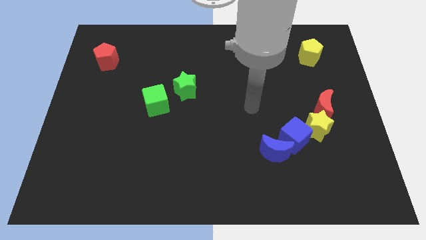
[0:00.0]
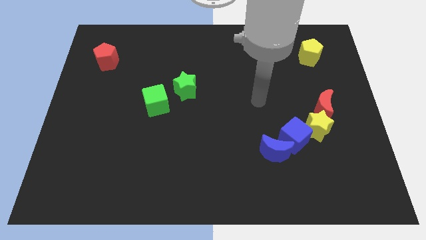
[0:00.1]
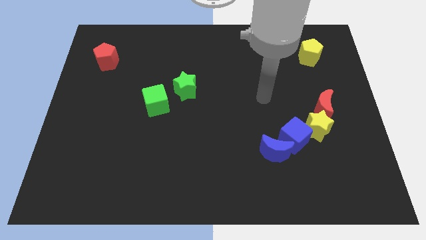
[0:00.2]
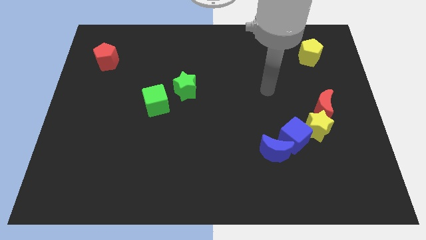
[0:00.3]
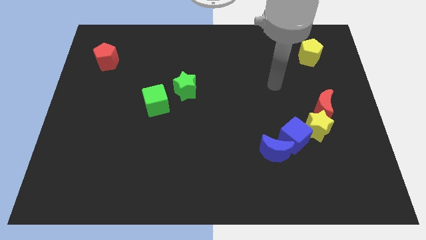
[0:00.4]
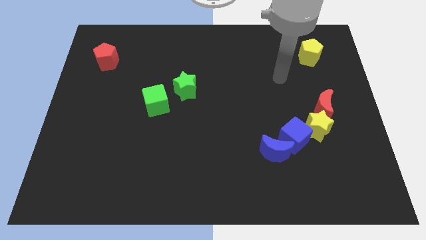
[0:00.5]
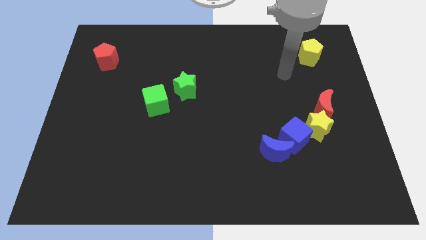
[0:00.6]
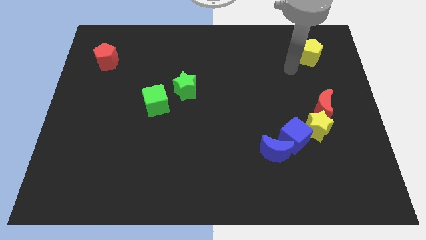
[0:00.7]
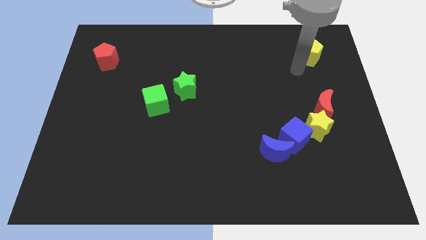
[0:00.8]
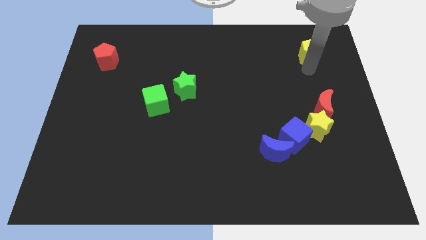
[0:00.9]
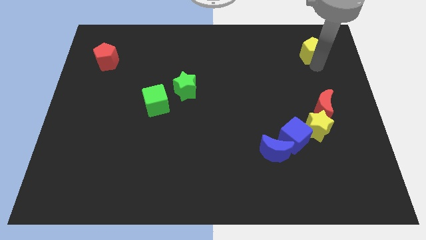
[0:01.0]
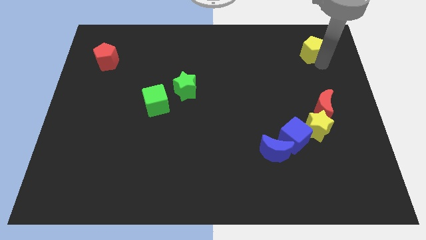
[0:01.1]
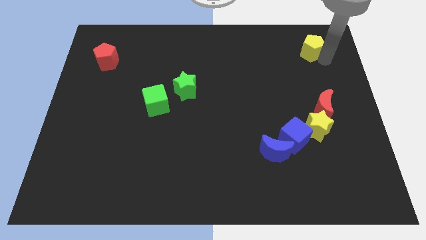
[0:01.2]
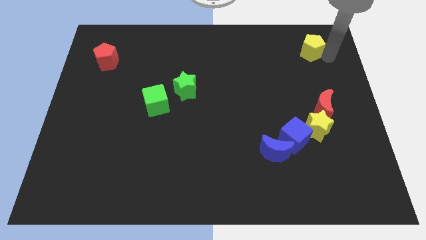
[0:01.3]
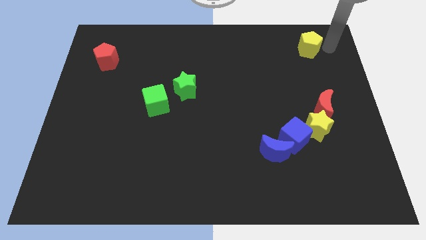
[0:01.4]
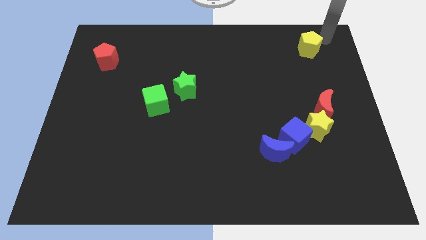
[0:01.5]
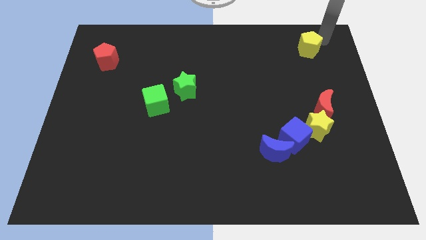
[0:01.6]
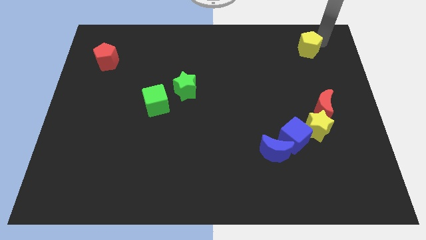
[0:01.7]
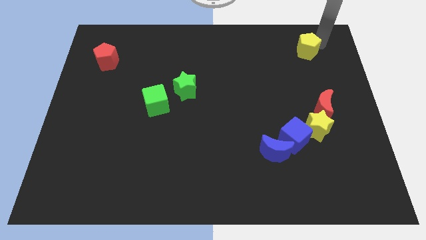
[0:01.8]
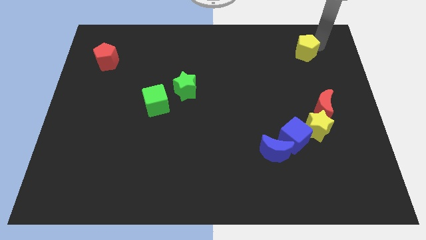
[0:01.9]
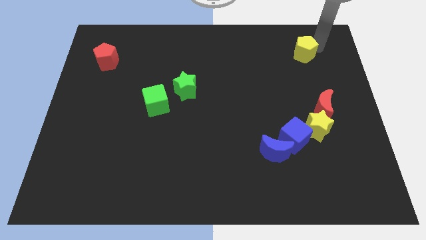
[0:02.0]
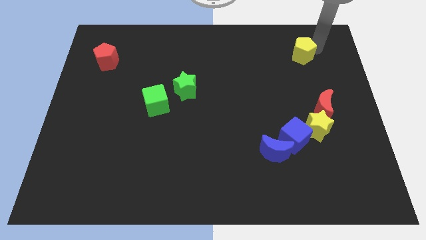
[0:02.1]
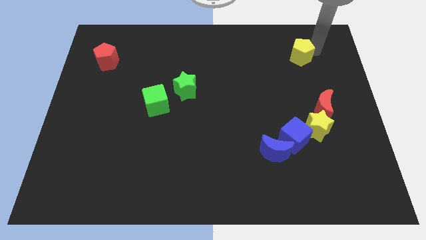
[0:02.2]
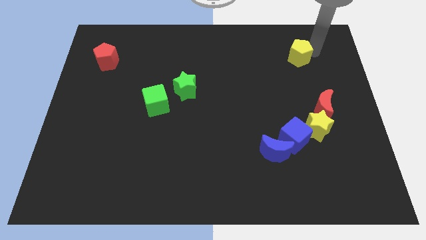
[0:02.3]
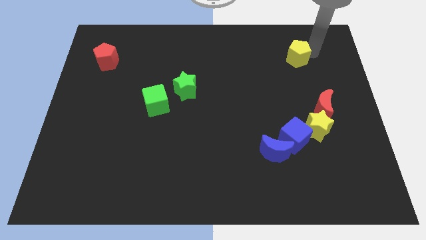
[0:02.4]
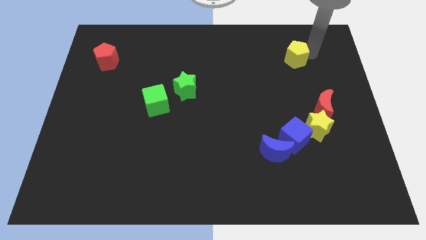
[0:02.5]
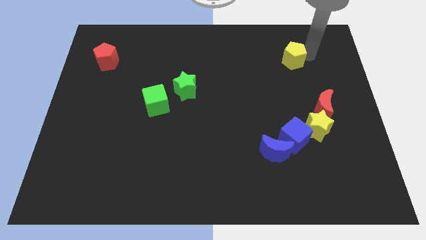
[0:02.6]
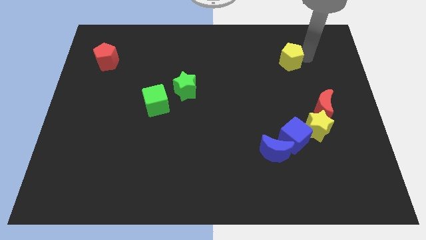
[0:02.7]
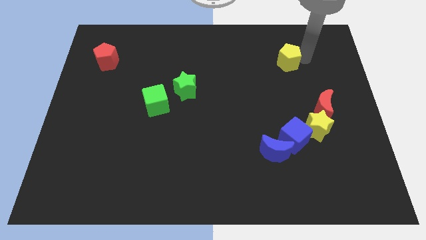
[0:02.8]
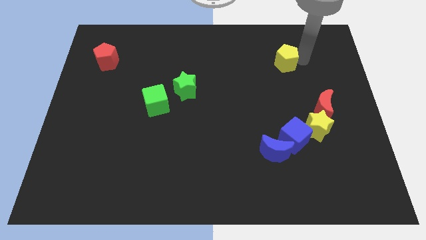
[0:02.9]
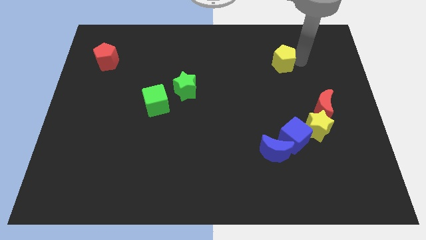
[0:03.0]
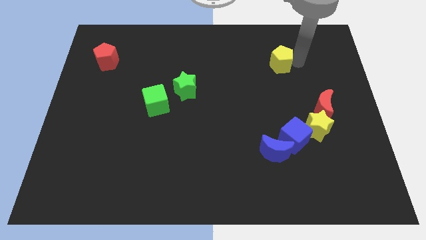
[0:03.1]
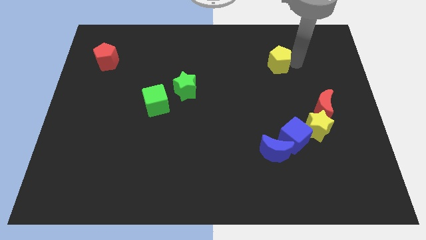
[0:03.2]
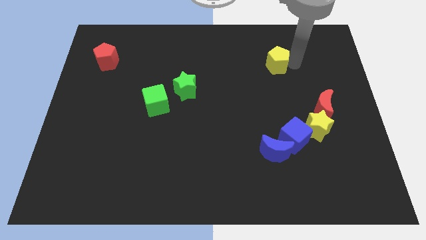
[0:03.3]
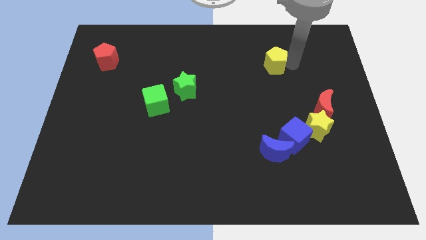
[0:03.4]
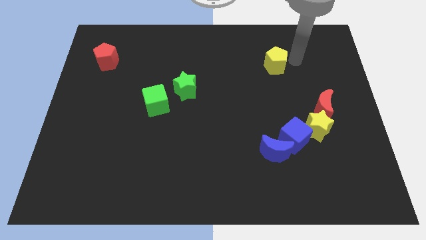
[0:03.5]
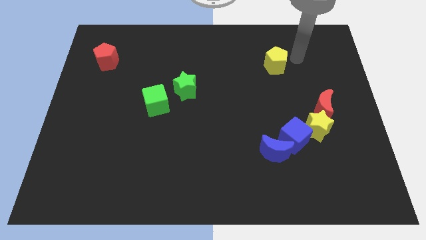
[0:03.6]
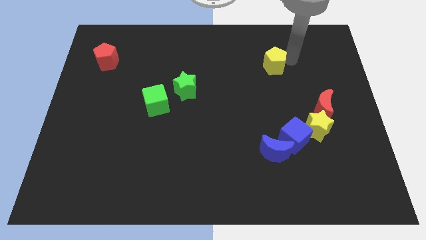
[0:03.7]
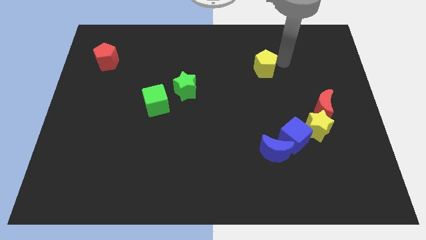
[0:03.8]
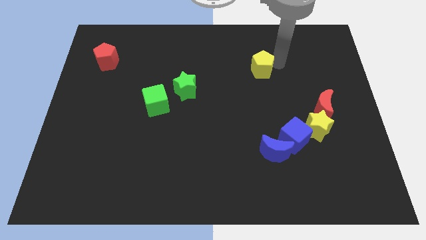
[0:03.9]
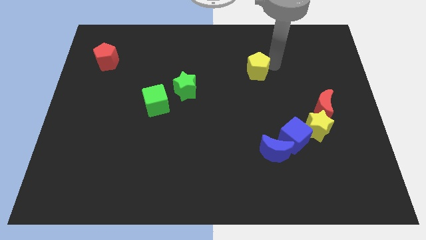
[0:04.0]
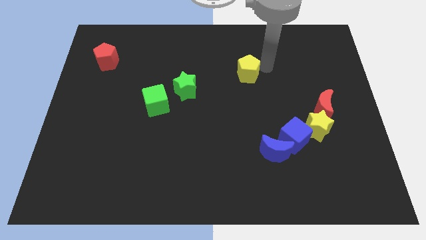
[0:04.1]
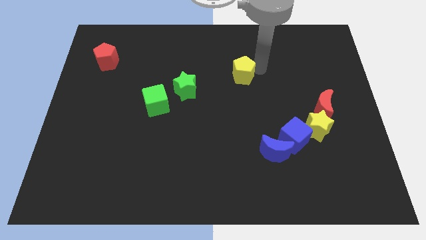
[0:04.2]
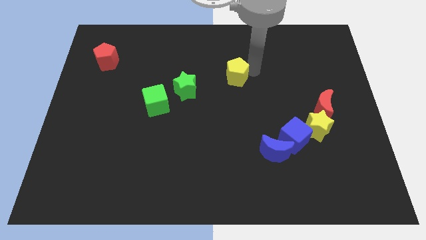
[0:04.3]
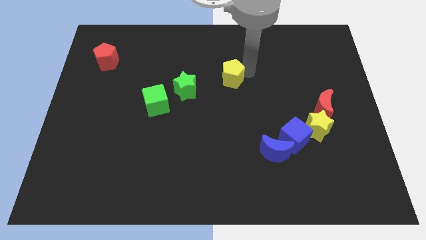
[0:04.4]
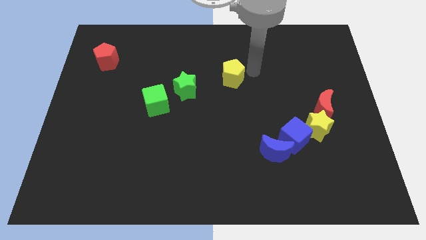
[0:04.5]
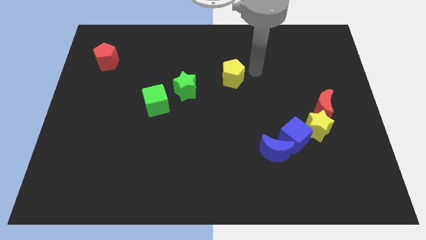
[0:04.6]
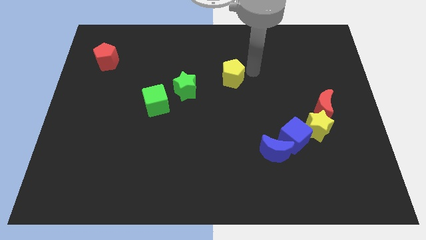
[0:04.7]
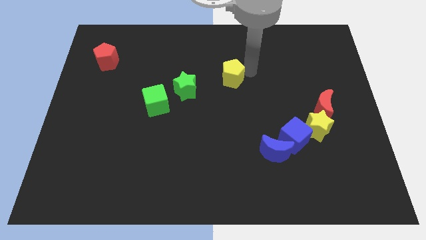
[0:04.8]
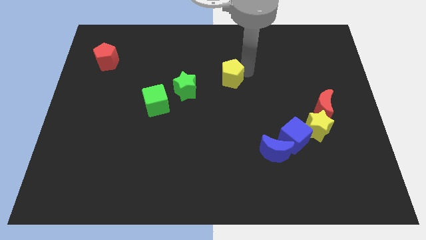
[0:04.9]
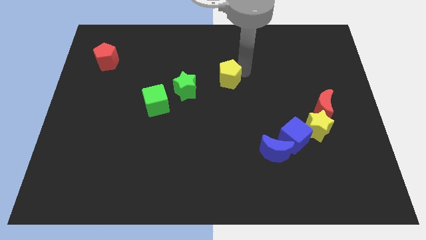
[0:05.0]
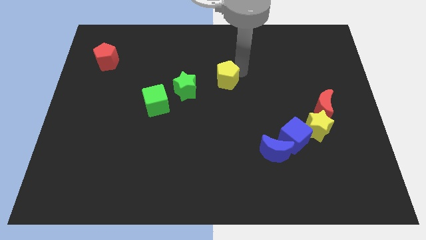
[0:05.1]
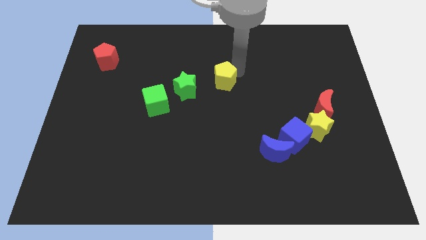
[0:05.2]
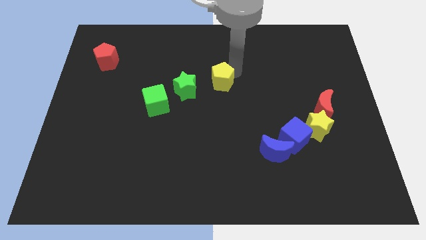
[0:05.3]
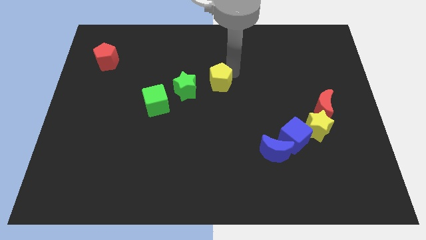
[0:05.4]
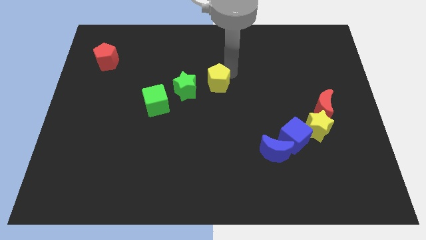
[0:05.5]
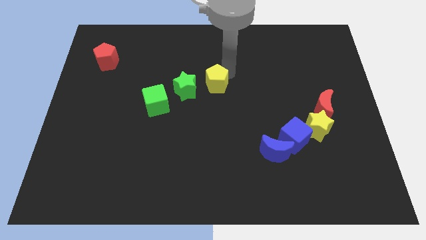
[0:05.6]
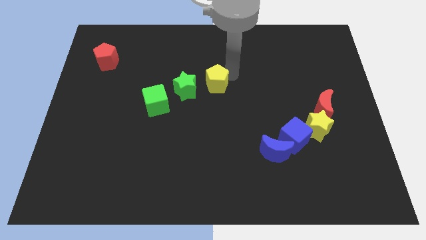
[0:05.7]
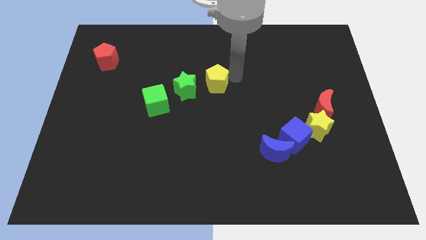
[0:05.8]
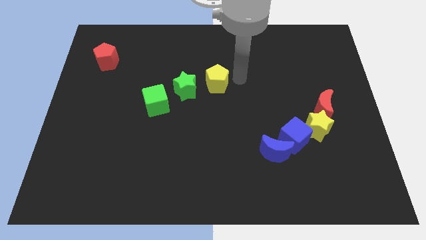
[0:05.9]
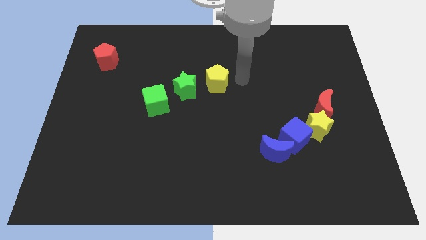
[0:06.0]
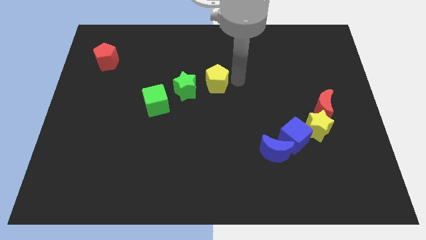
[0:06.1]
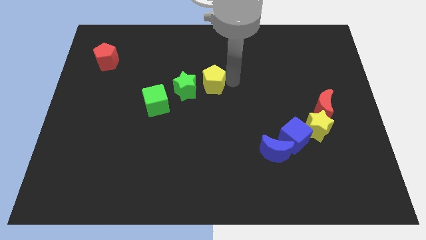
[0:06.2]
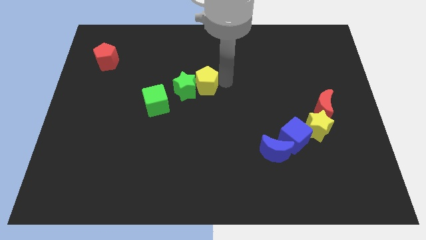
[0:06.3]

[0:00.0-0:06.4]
move the yellow pentagon close to the green star

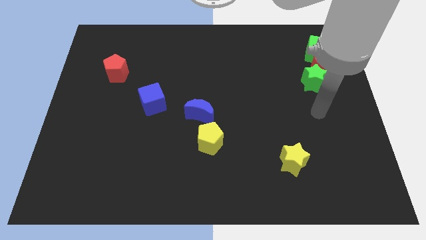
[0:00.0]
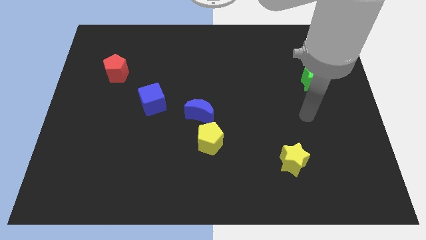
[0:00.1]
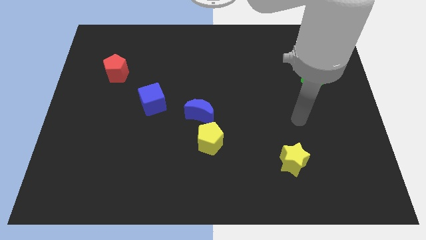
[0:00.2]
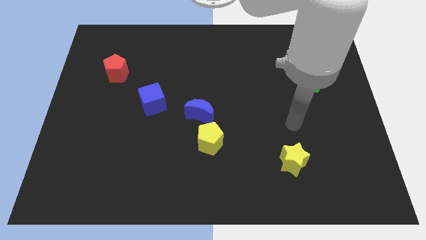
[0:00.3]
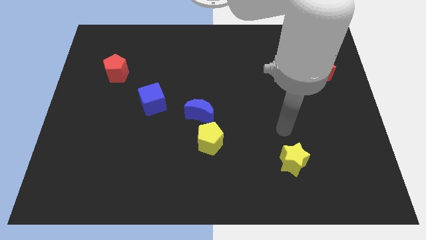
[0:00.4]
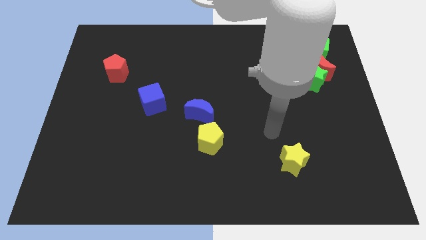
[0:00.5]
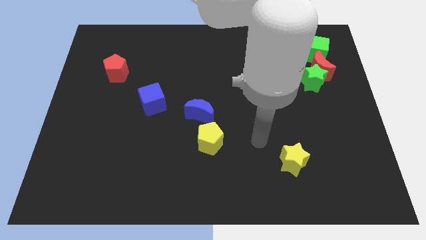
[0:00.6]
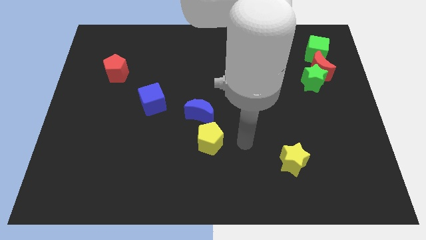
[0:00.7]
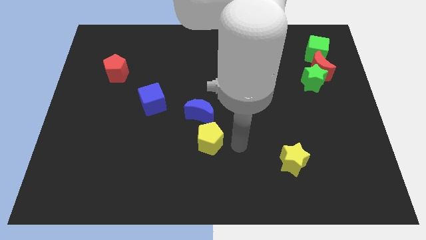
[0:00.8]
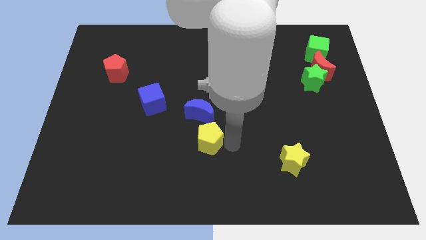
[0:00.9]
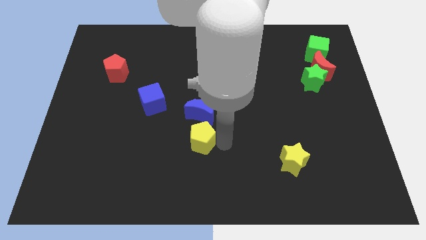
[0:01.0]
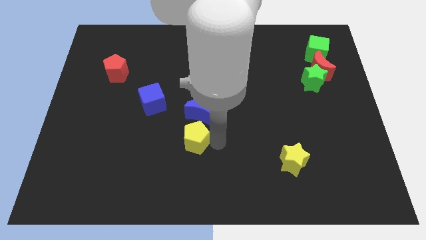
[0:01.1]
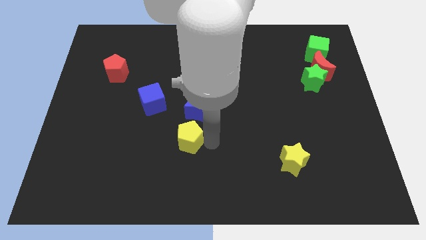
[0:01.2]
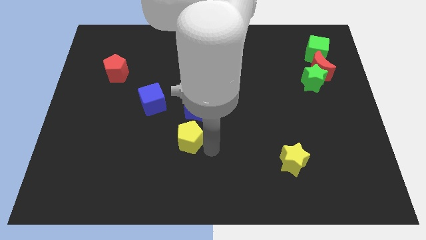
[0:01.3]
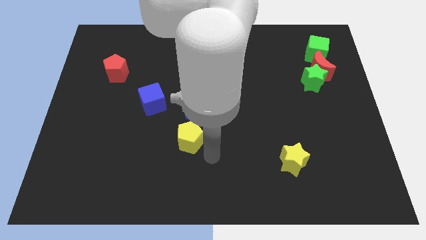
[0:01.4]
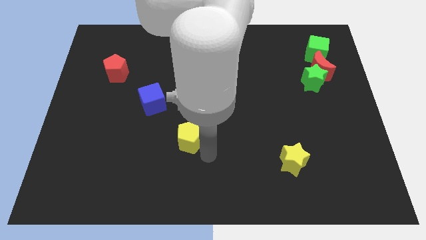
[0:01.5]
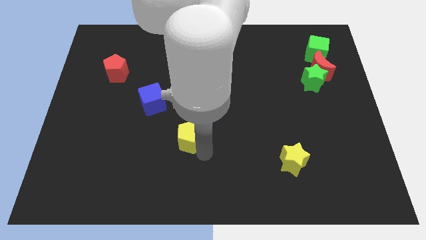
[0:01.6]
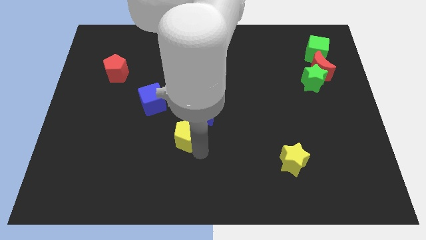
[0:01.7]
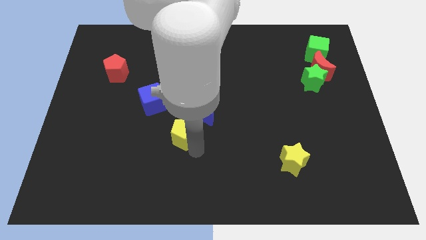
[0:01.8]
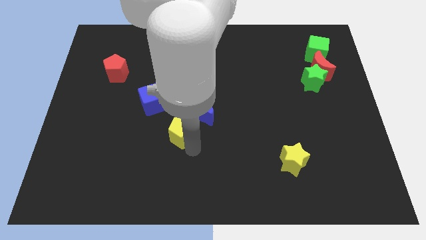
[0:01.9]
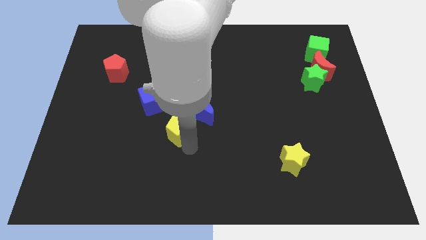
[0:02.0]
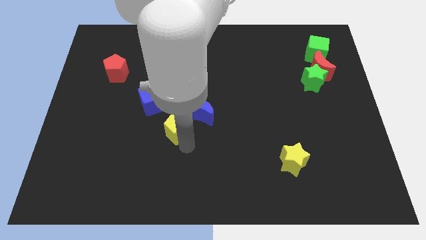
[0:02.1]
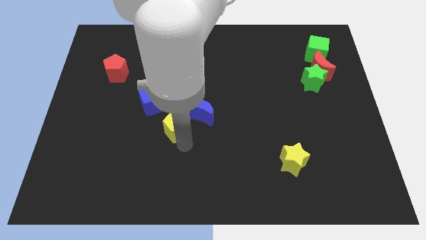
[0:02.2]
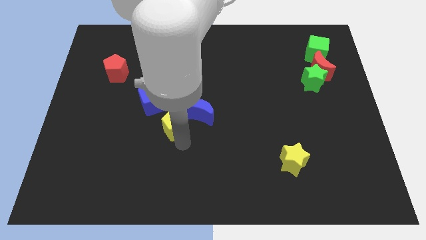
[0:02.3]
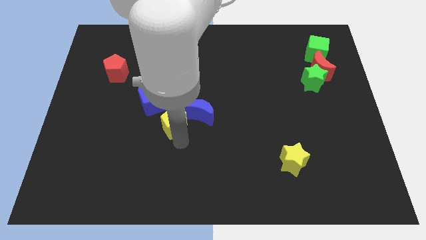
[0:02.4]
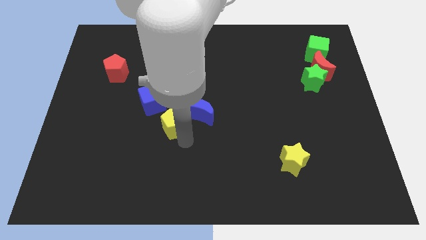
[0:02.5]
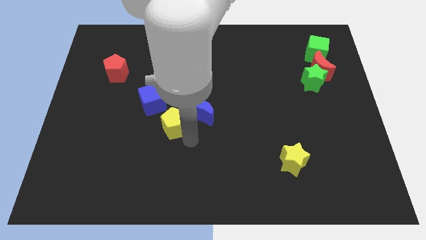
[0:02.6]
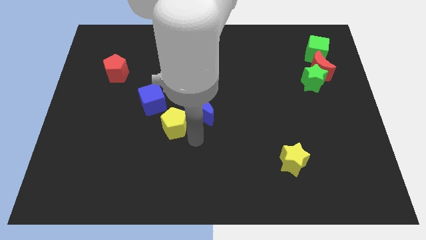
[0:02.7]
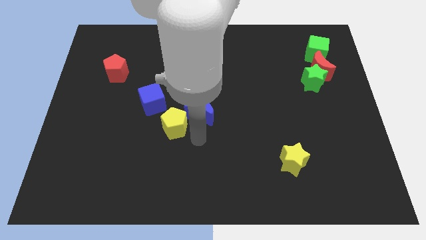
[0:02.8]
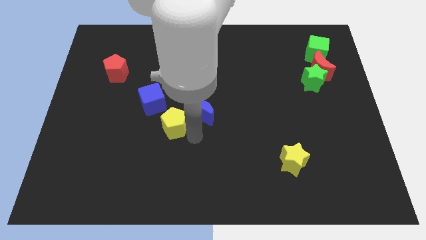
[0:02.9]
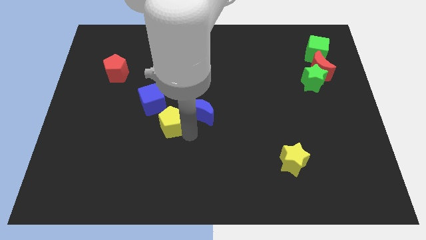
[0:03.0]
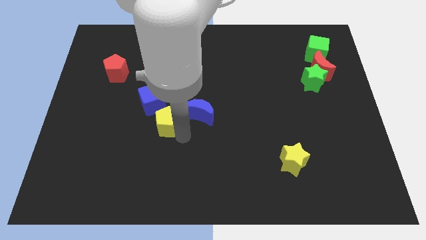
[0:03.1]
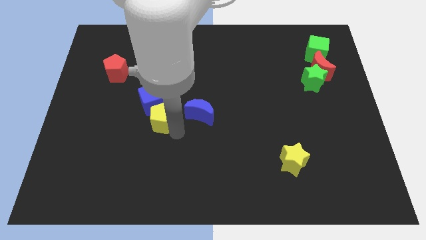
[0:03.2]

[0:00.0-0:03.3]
put the yellow pentagon towards the blue cube
